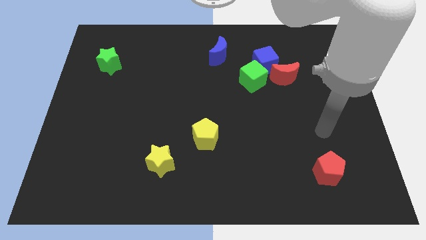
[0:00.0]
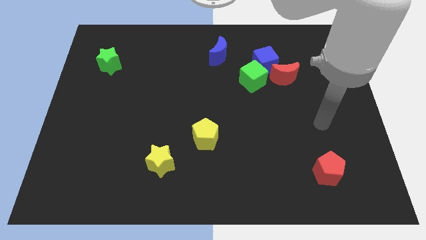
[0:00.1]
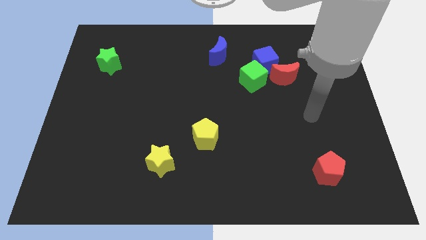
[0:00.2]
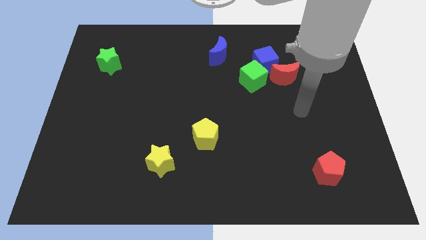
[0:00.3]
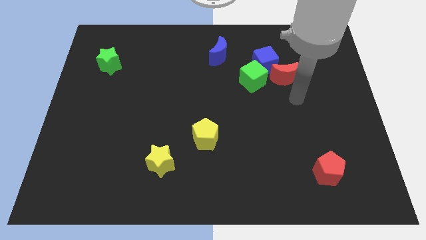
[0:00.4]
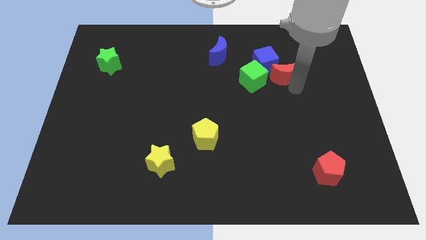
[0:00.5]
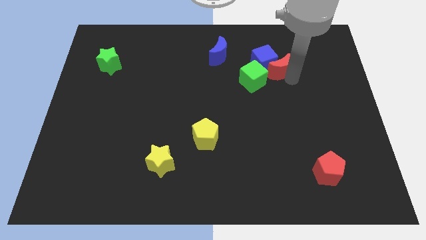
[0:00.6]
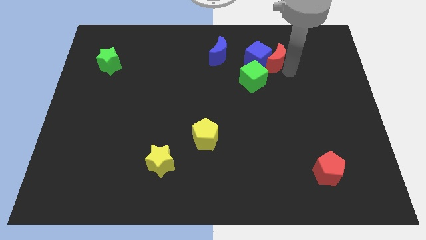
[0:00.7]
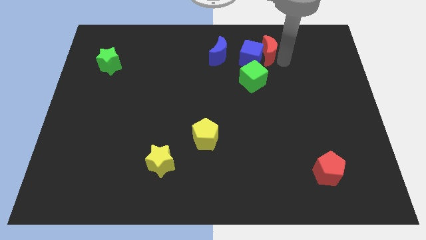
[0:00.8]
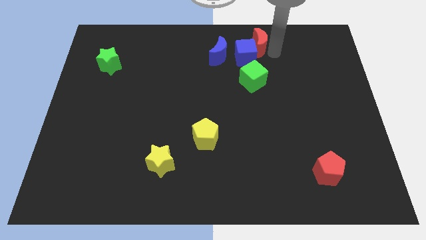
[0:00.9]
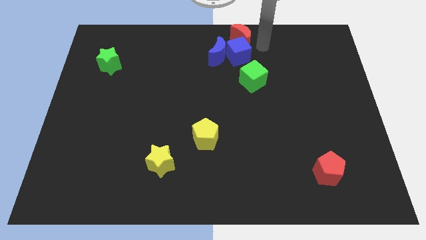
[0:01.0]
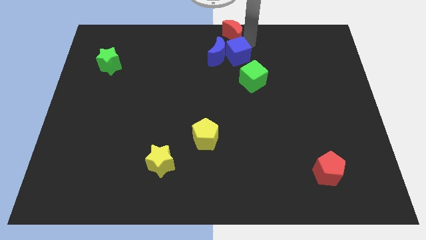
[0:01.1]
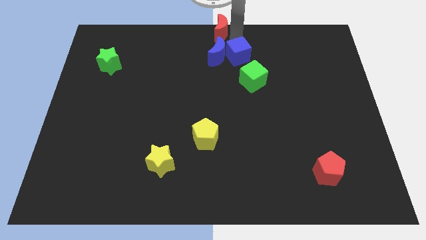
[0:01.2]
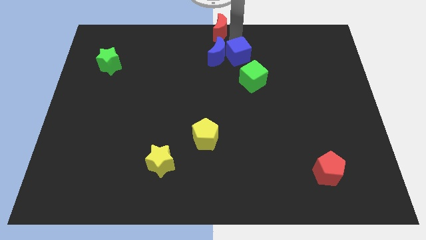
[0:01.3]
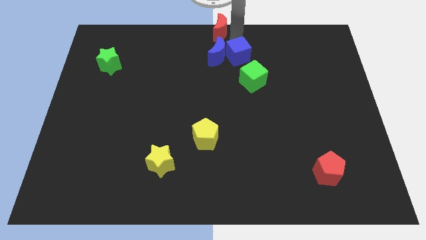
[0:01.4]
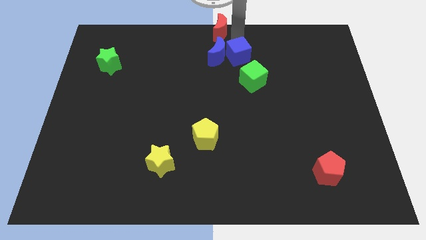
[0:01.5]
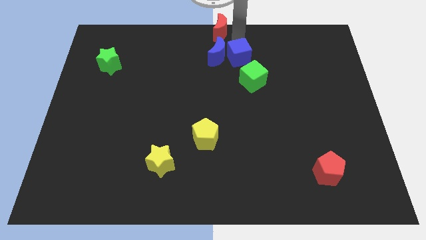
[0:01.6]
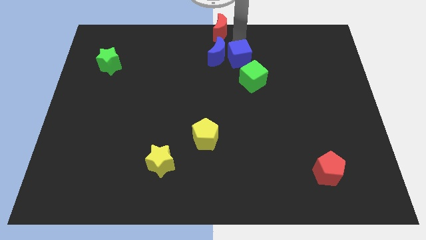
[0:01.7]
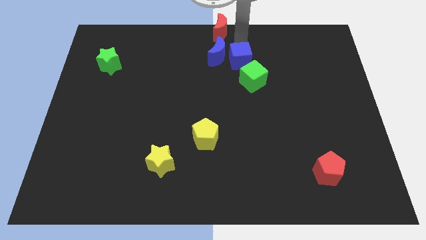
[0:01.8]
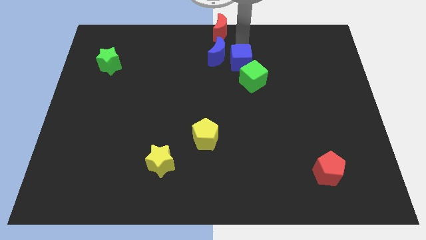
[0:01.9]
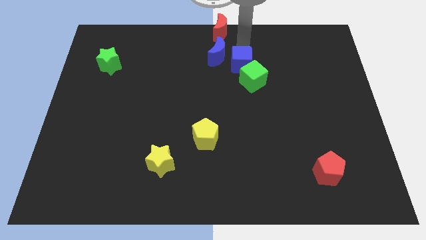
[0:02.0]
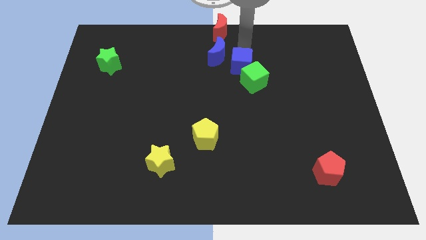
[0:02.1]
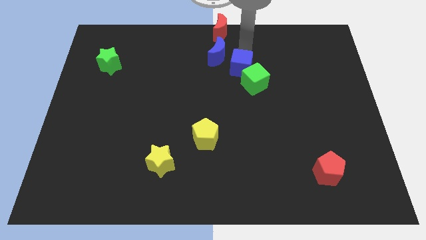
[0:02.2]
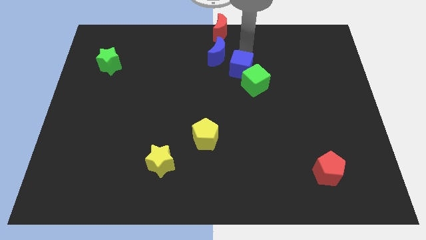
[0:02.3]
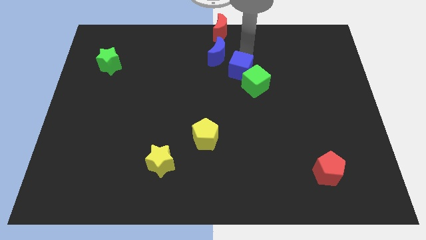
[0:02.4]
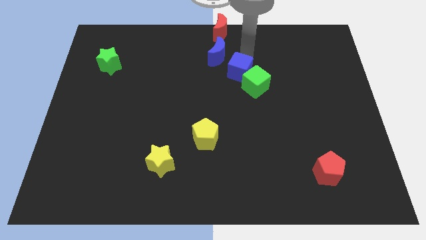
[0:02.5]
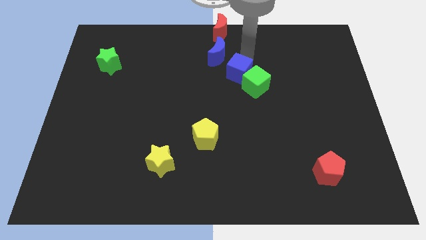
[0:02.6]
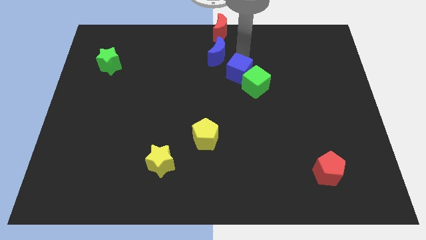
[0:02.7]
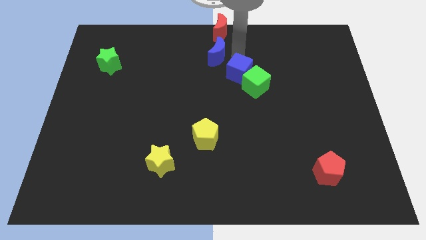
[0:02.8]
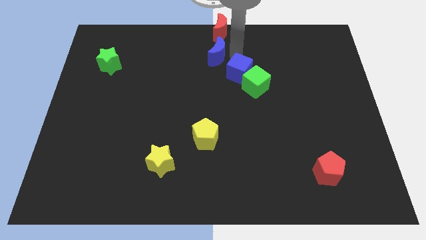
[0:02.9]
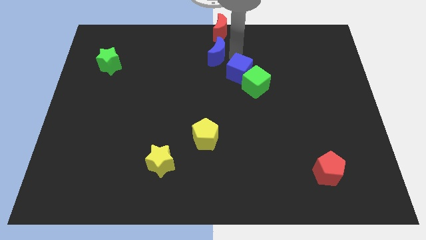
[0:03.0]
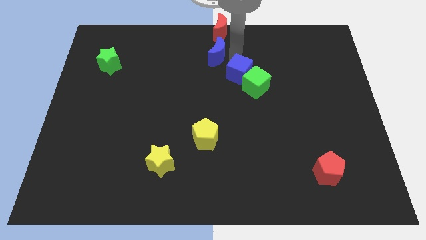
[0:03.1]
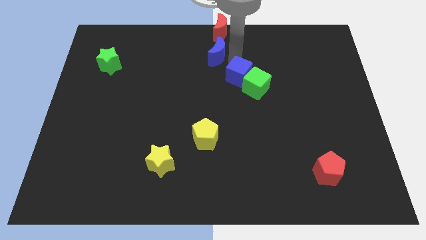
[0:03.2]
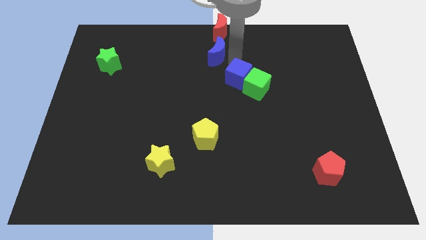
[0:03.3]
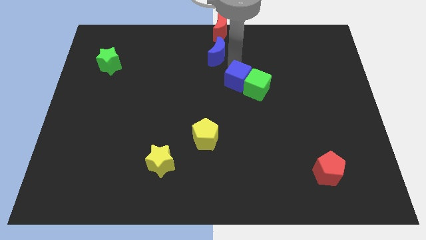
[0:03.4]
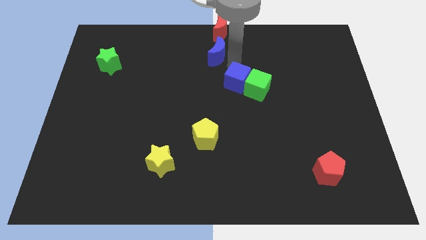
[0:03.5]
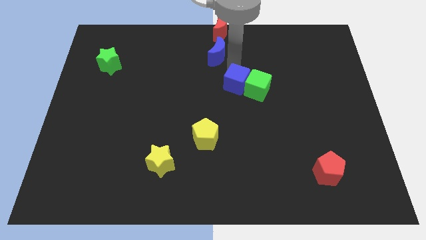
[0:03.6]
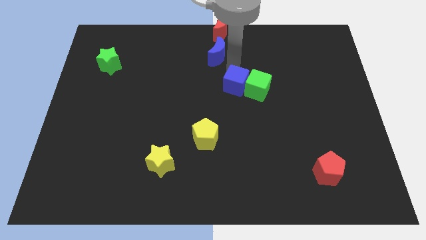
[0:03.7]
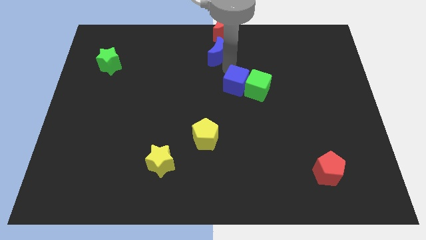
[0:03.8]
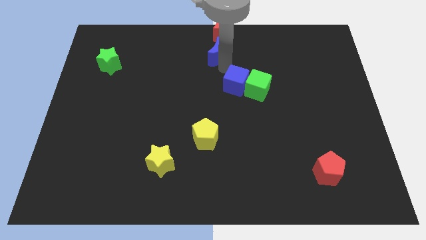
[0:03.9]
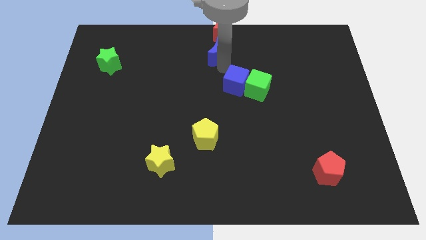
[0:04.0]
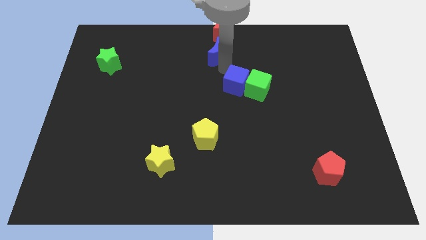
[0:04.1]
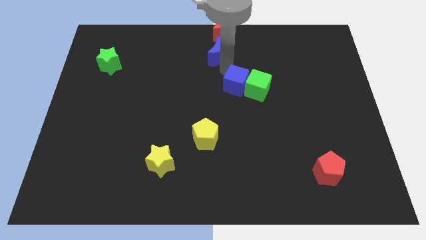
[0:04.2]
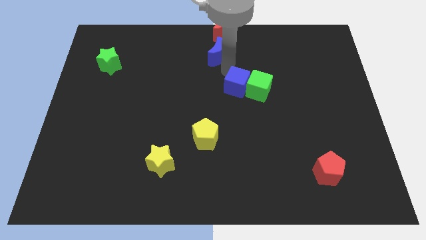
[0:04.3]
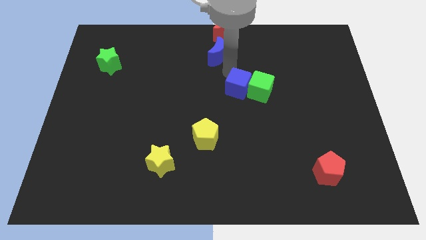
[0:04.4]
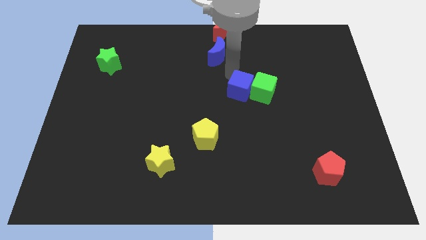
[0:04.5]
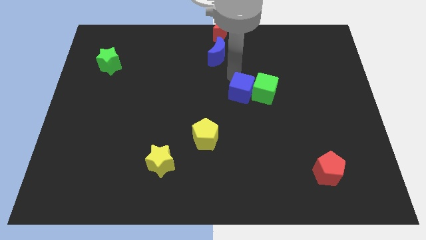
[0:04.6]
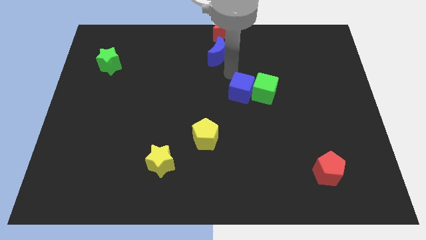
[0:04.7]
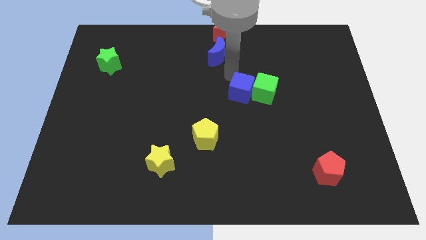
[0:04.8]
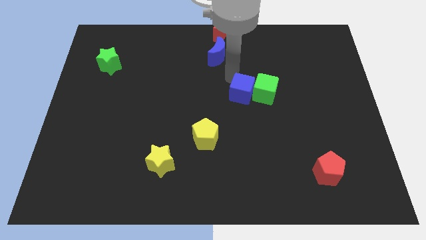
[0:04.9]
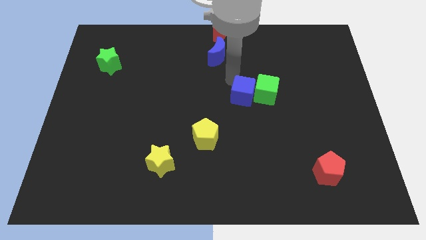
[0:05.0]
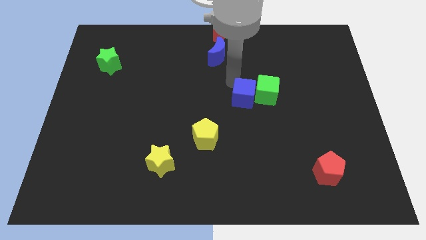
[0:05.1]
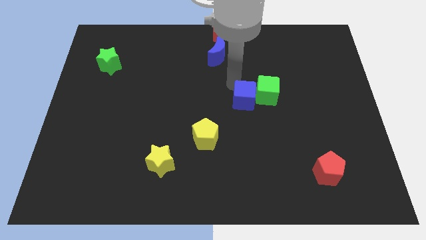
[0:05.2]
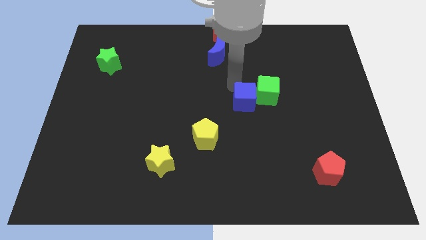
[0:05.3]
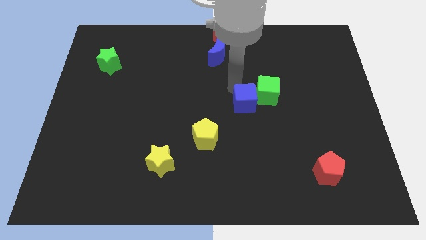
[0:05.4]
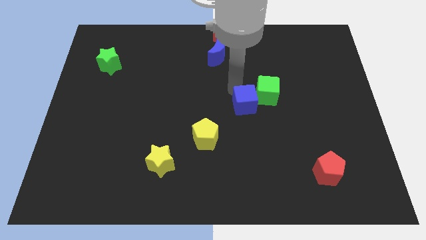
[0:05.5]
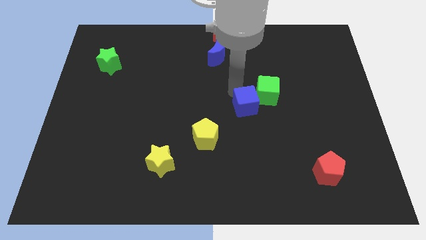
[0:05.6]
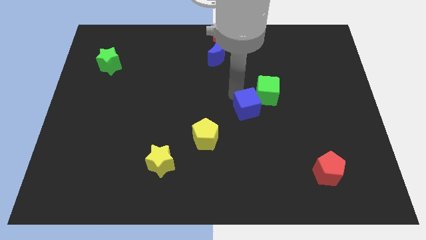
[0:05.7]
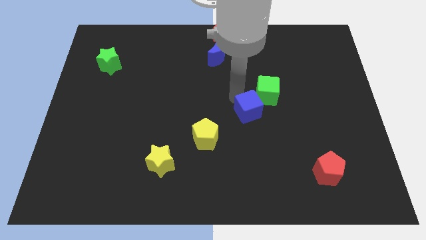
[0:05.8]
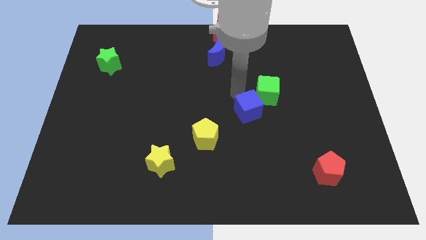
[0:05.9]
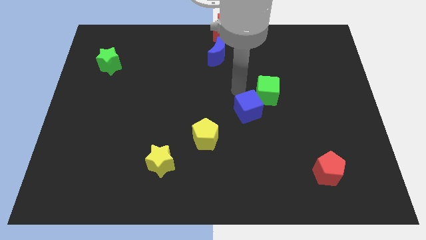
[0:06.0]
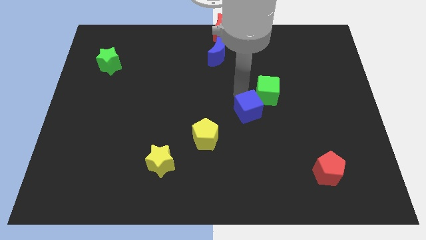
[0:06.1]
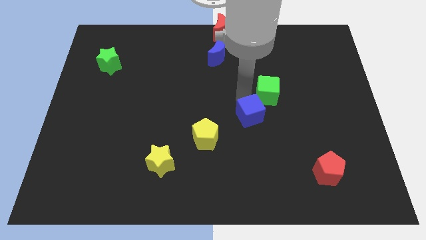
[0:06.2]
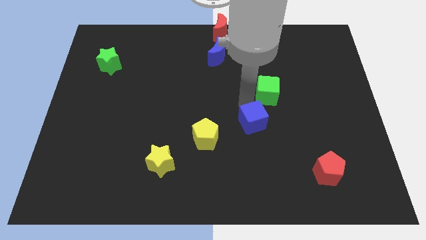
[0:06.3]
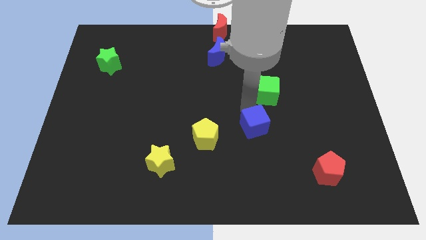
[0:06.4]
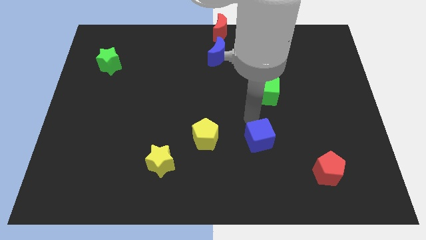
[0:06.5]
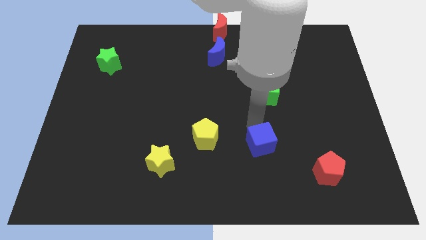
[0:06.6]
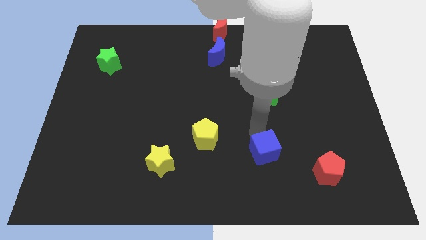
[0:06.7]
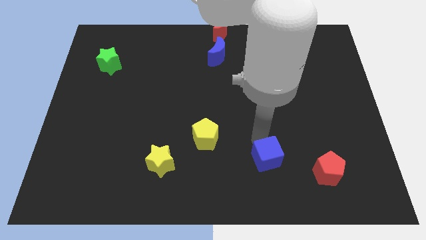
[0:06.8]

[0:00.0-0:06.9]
push the blue cube to the left of the red pentagon
